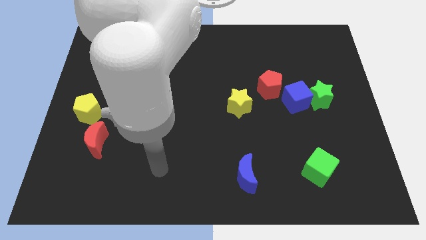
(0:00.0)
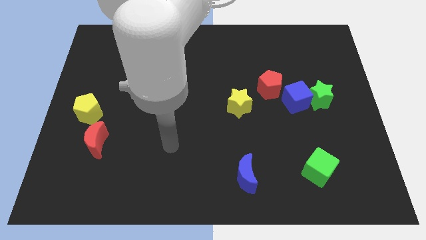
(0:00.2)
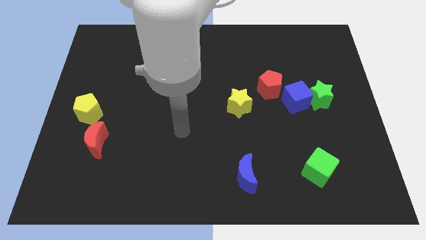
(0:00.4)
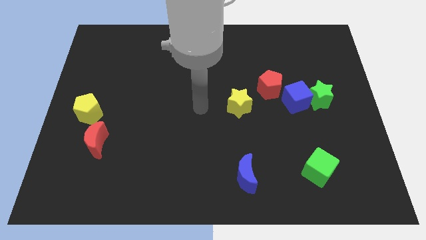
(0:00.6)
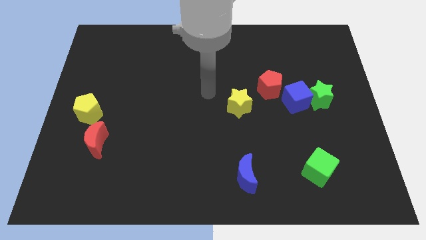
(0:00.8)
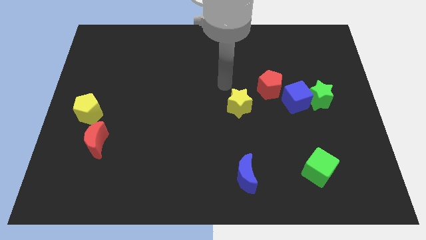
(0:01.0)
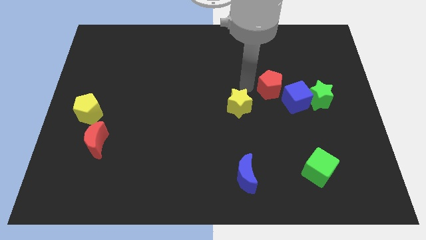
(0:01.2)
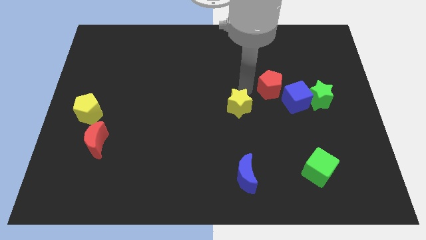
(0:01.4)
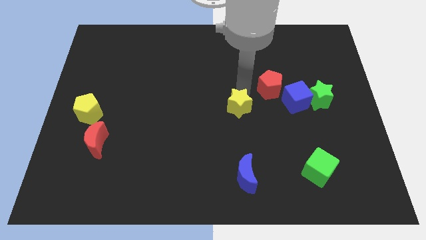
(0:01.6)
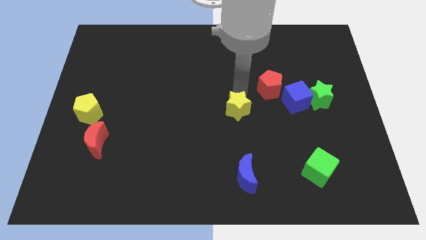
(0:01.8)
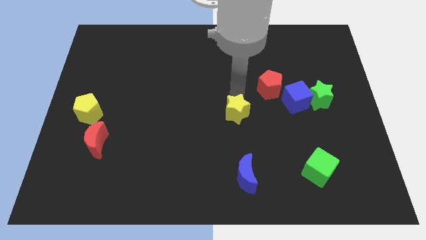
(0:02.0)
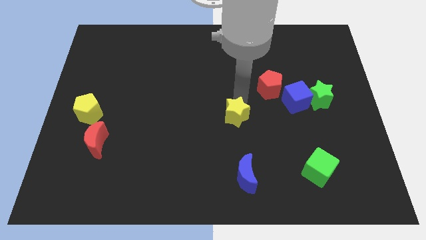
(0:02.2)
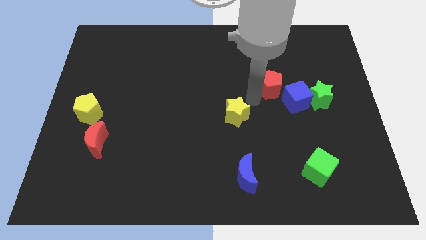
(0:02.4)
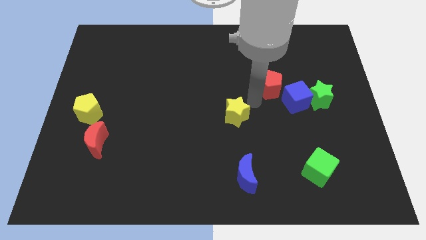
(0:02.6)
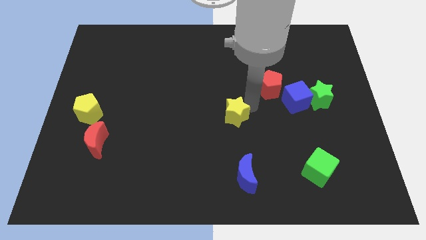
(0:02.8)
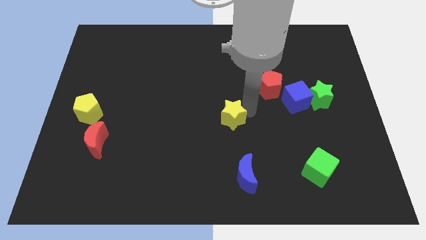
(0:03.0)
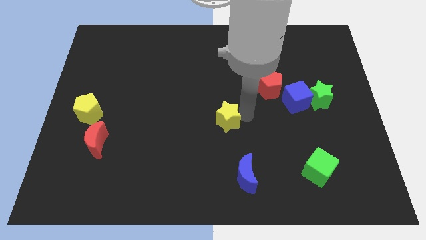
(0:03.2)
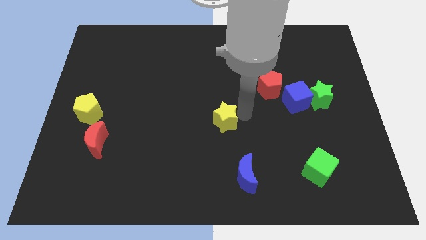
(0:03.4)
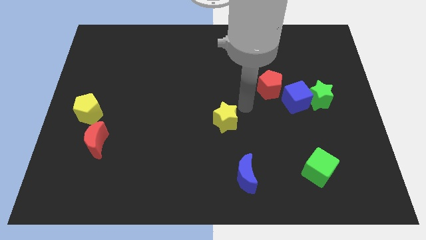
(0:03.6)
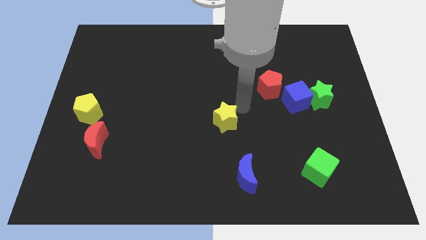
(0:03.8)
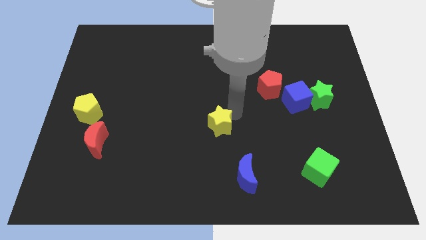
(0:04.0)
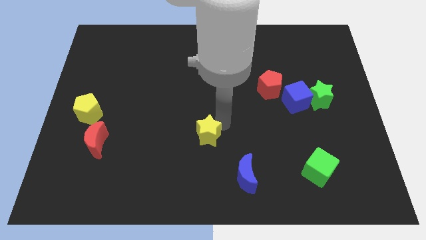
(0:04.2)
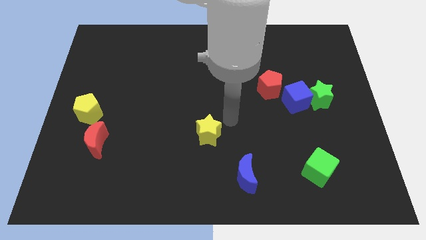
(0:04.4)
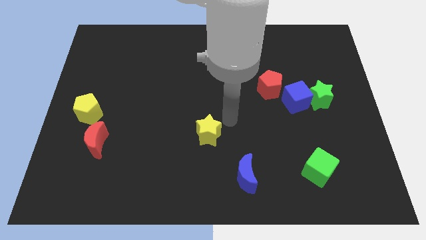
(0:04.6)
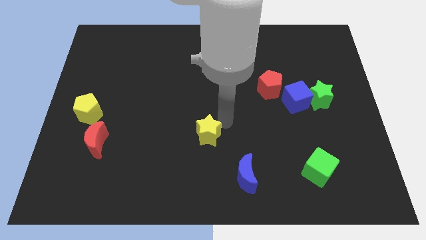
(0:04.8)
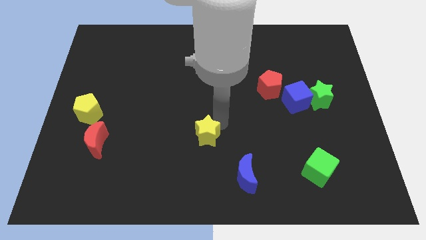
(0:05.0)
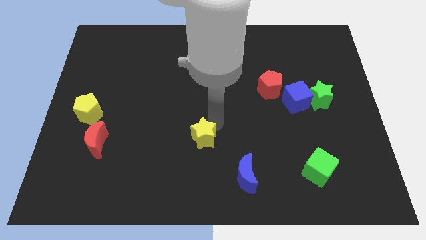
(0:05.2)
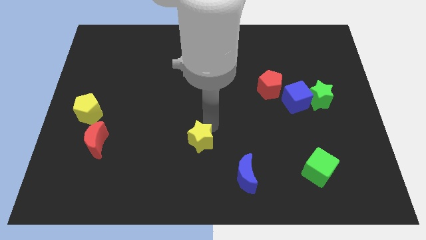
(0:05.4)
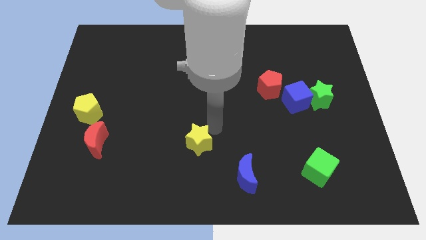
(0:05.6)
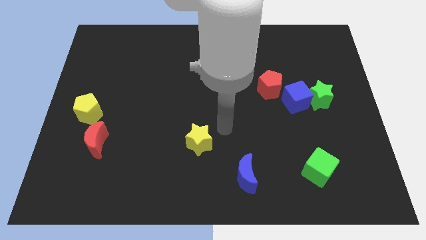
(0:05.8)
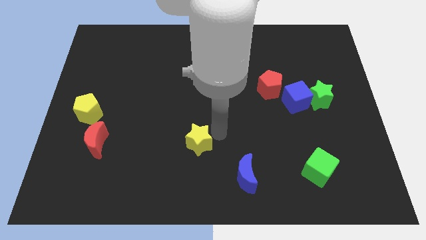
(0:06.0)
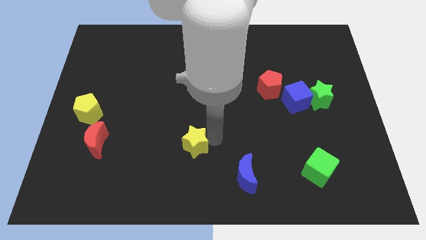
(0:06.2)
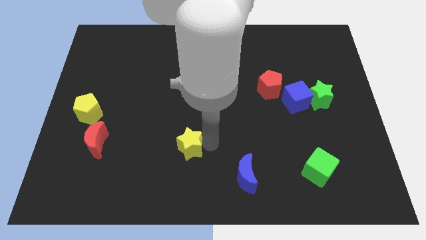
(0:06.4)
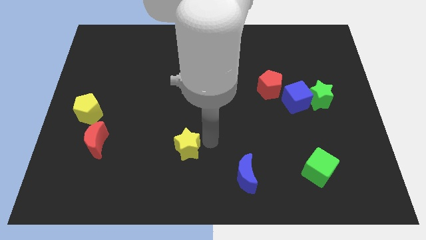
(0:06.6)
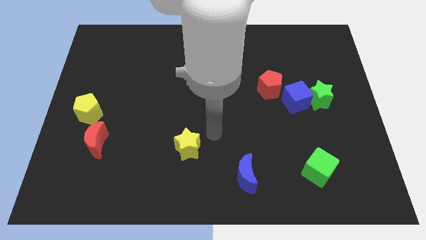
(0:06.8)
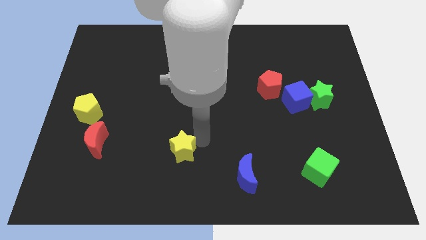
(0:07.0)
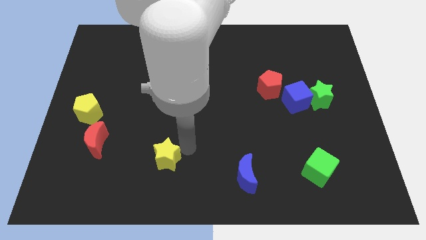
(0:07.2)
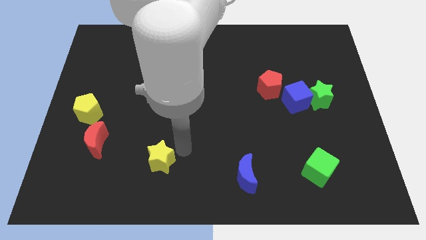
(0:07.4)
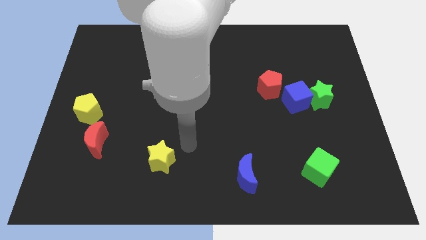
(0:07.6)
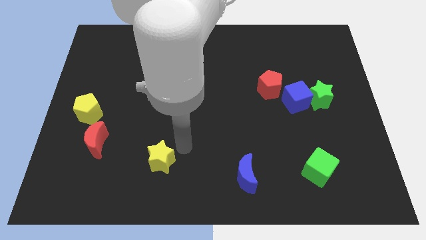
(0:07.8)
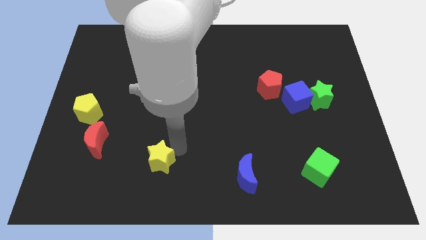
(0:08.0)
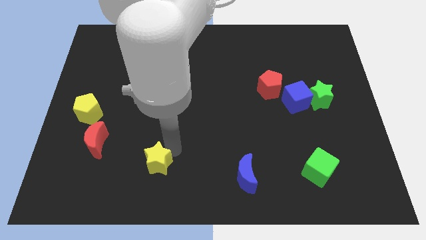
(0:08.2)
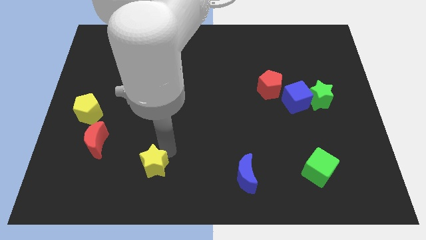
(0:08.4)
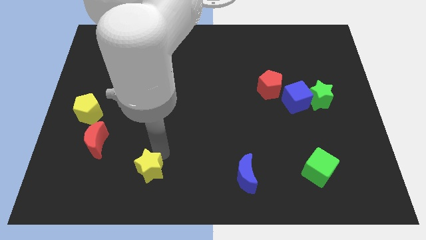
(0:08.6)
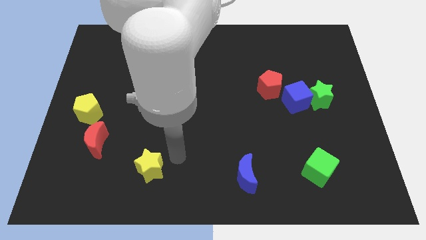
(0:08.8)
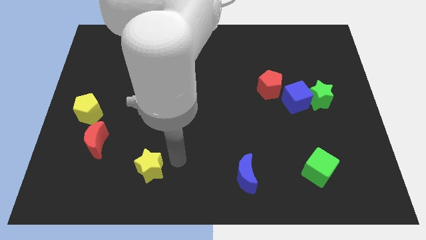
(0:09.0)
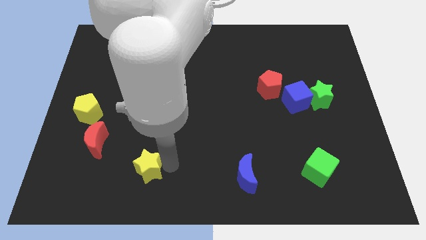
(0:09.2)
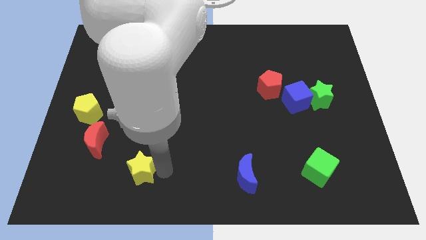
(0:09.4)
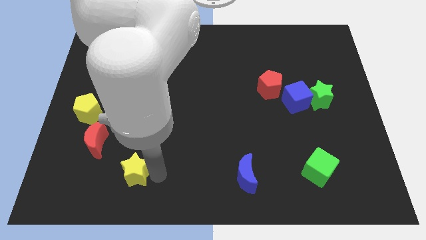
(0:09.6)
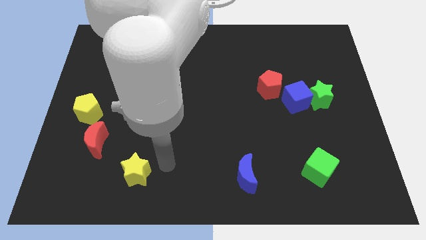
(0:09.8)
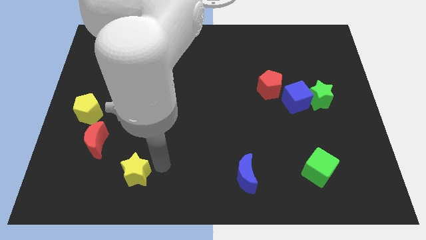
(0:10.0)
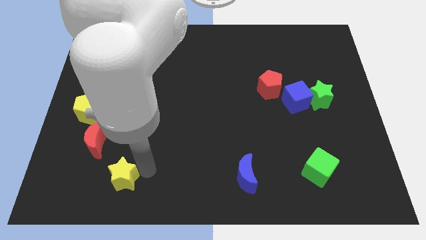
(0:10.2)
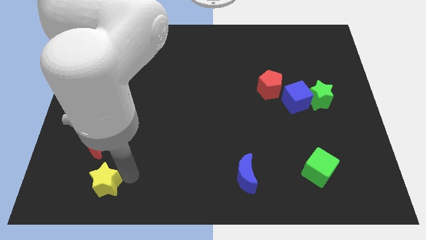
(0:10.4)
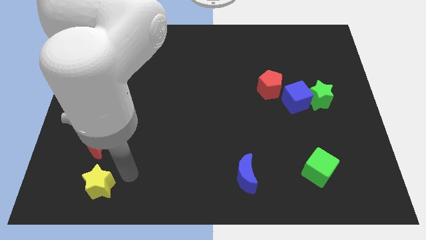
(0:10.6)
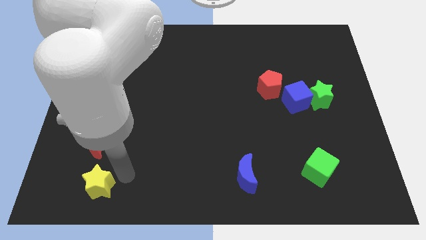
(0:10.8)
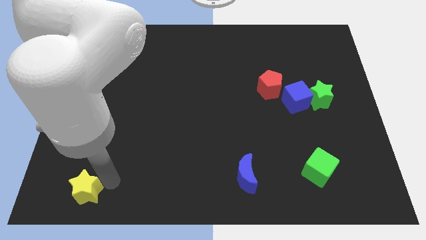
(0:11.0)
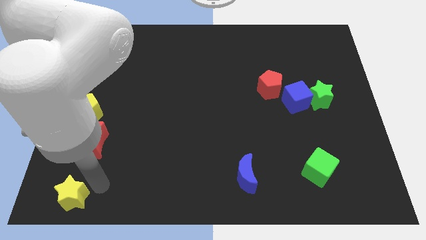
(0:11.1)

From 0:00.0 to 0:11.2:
move the yellow star to the bottom left corner

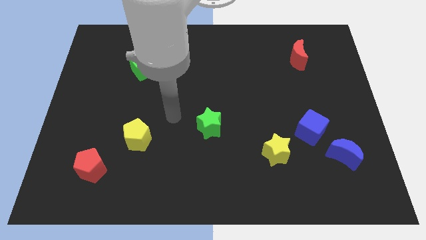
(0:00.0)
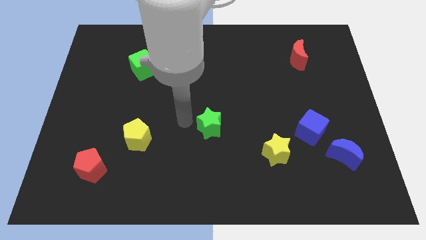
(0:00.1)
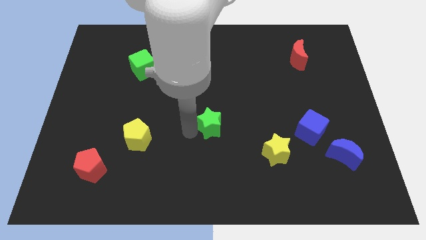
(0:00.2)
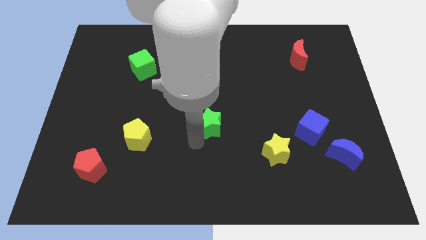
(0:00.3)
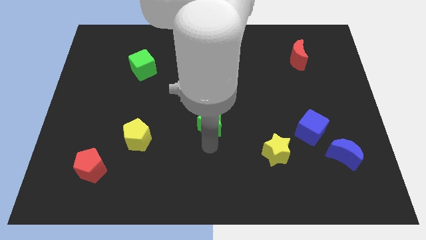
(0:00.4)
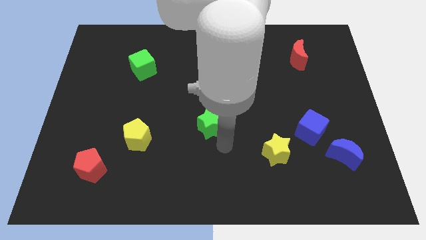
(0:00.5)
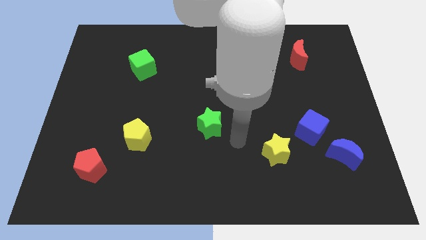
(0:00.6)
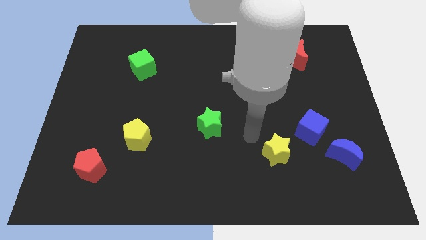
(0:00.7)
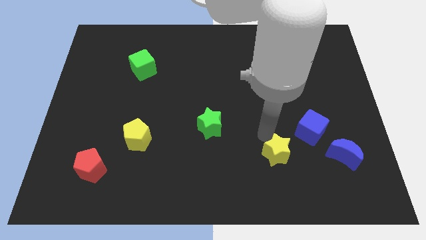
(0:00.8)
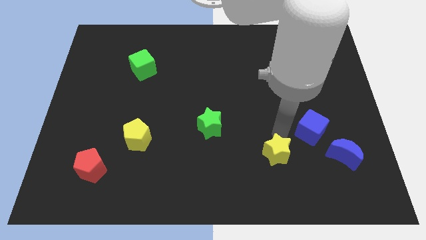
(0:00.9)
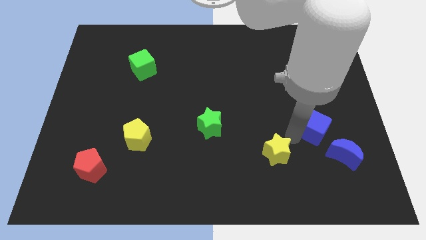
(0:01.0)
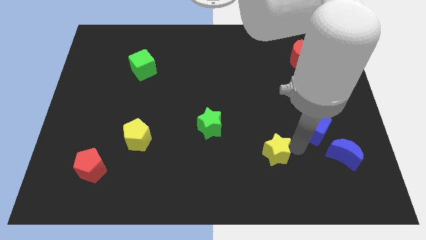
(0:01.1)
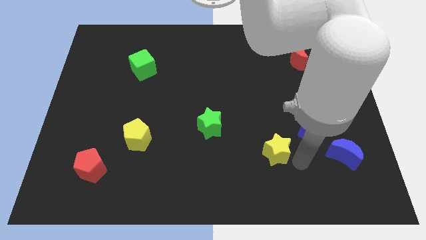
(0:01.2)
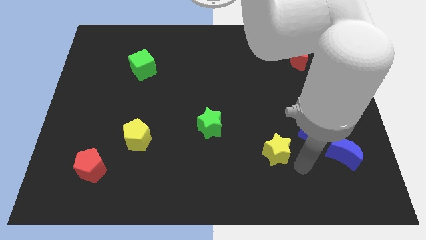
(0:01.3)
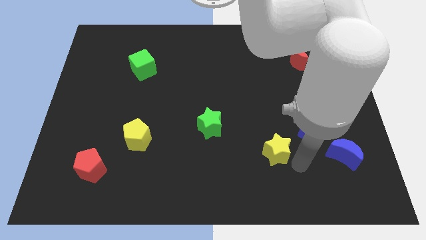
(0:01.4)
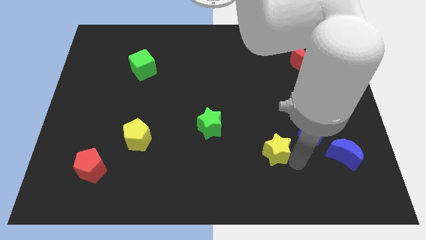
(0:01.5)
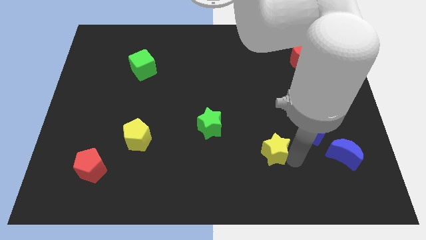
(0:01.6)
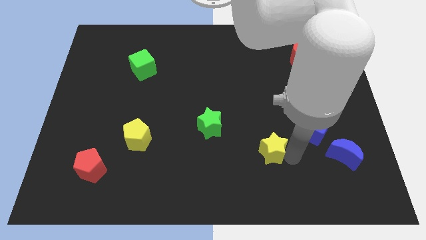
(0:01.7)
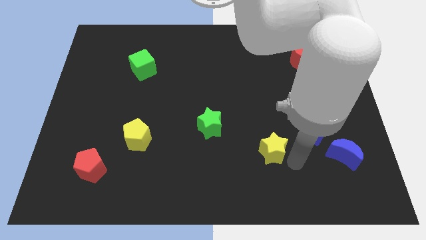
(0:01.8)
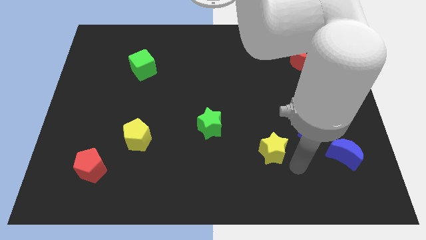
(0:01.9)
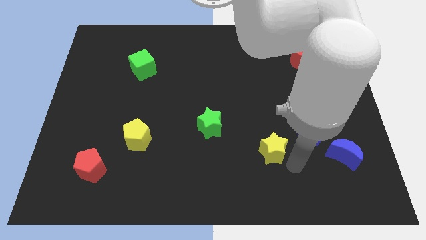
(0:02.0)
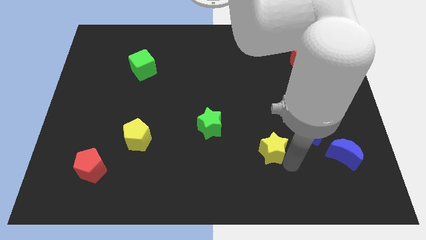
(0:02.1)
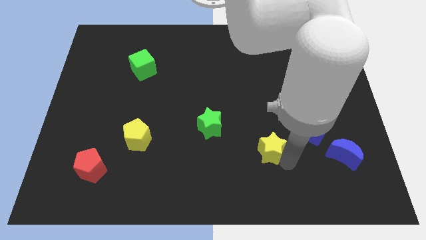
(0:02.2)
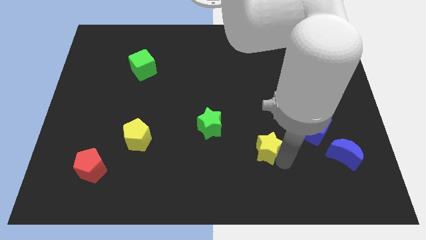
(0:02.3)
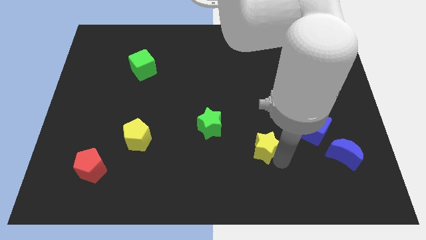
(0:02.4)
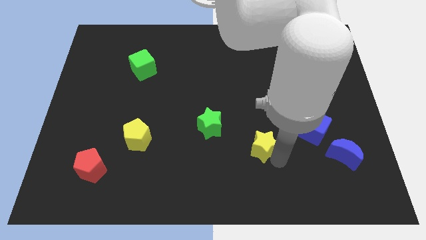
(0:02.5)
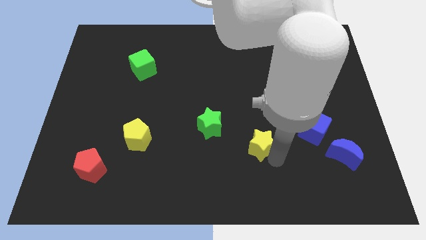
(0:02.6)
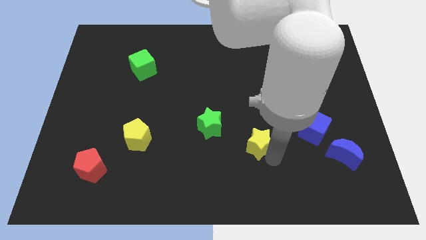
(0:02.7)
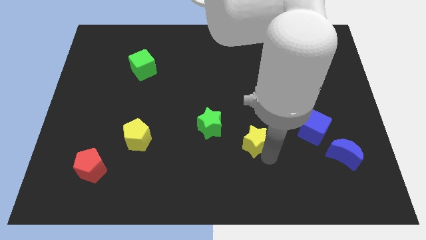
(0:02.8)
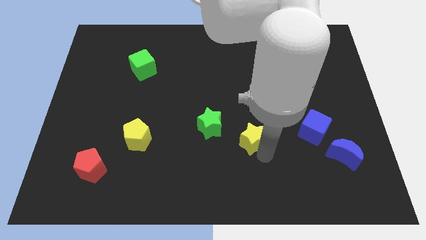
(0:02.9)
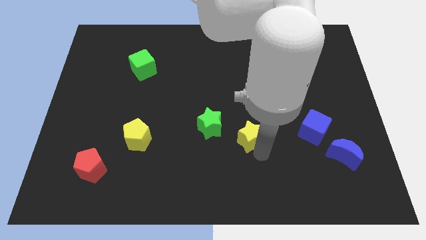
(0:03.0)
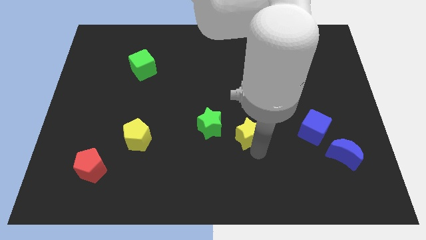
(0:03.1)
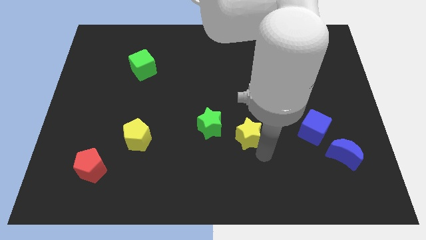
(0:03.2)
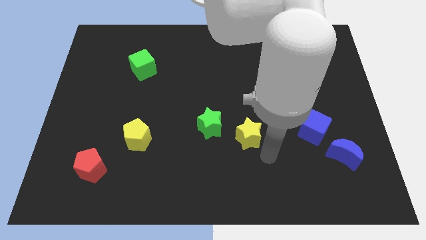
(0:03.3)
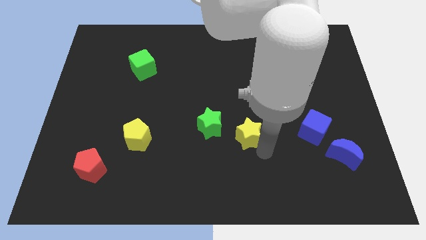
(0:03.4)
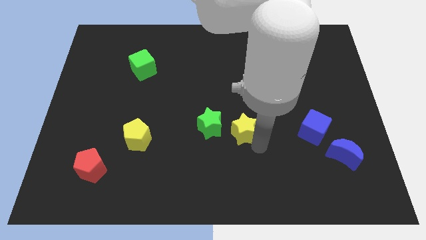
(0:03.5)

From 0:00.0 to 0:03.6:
slide the yellow star to the center
